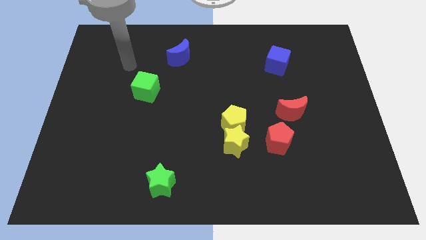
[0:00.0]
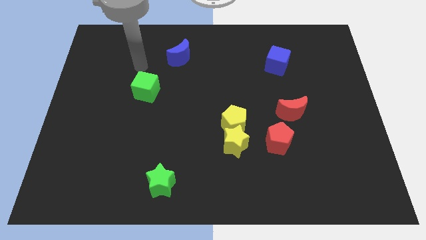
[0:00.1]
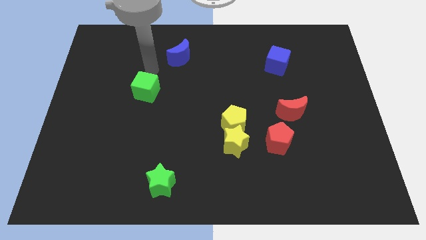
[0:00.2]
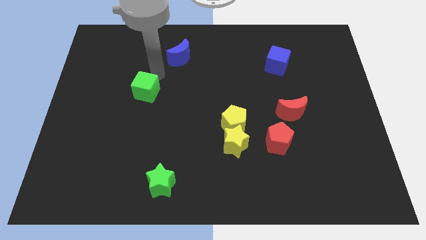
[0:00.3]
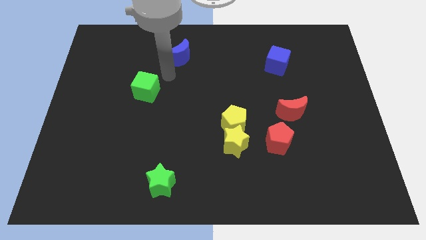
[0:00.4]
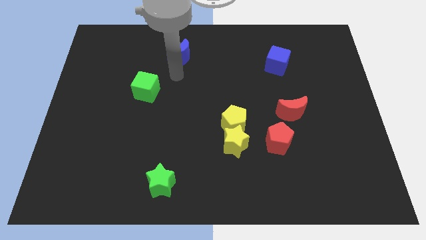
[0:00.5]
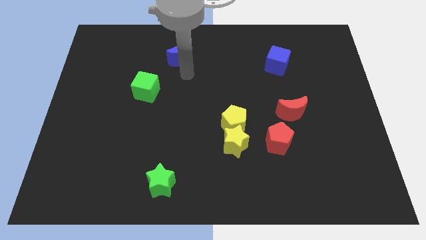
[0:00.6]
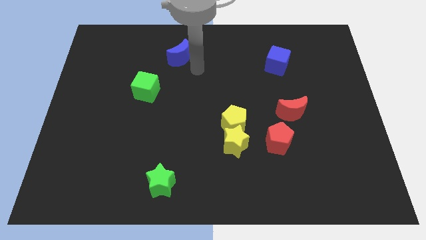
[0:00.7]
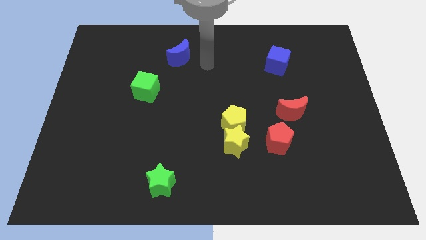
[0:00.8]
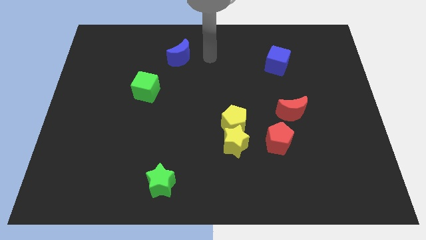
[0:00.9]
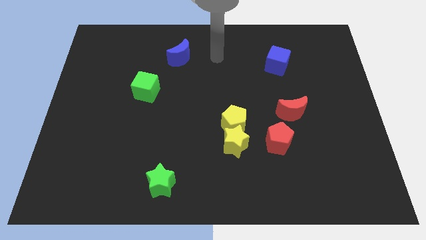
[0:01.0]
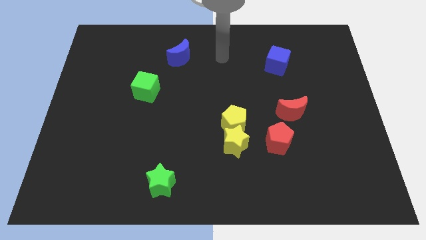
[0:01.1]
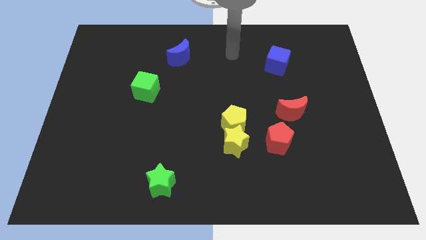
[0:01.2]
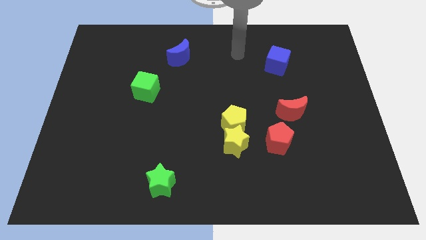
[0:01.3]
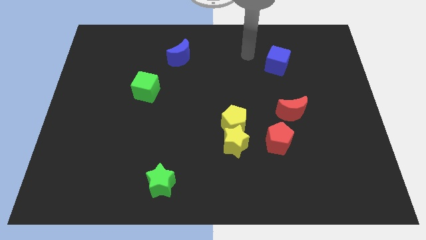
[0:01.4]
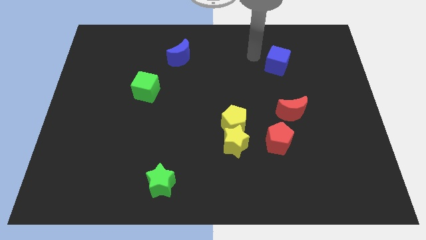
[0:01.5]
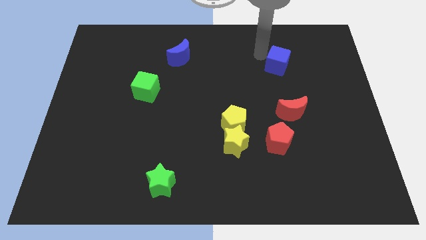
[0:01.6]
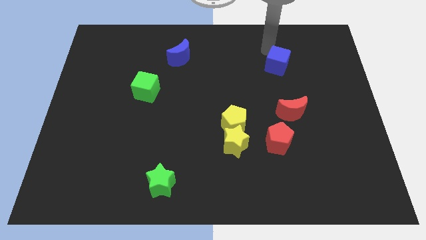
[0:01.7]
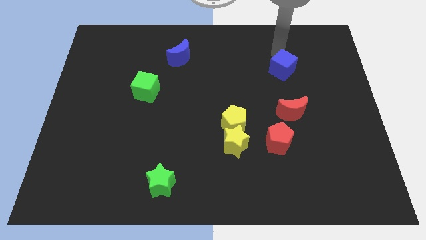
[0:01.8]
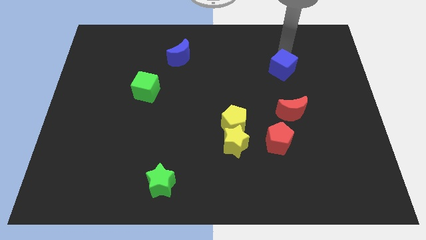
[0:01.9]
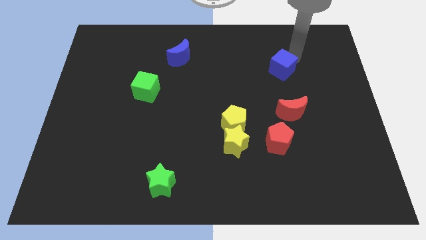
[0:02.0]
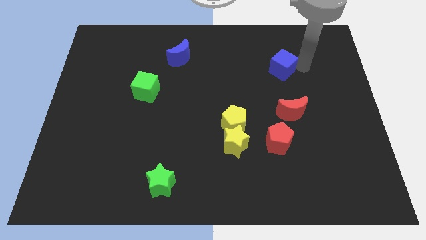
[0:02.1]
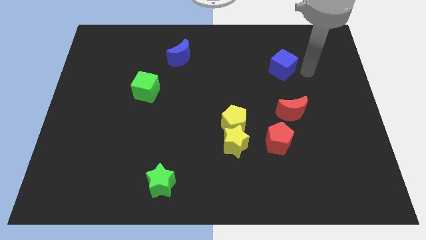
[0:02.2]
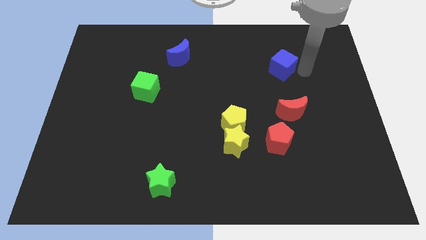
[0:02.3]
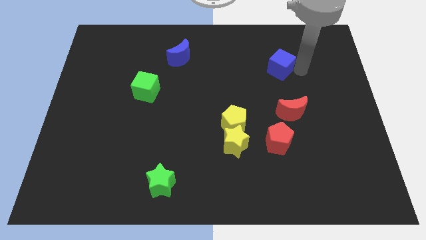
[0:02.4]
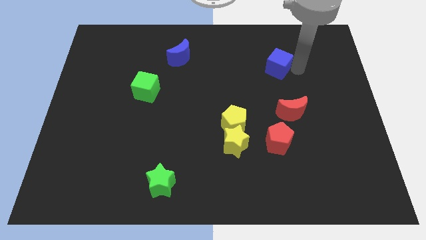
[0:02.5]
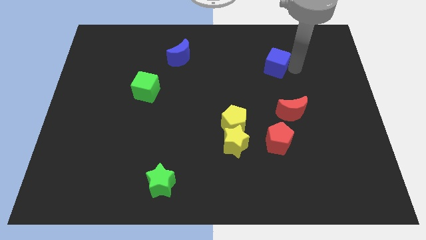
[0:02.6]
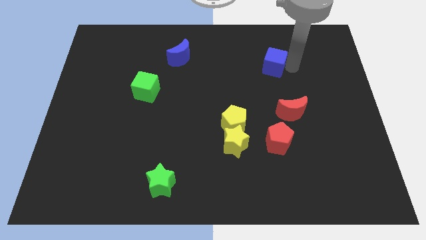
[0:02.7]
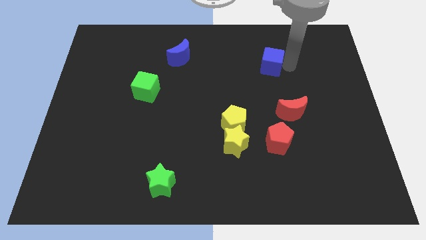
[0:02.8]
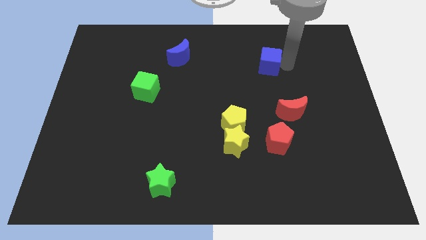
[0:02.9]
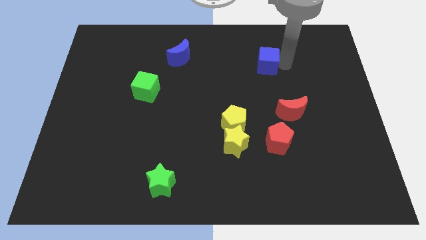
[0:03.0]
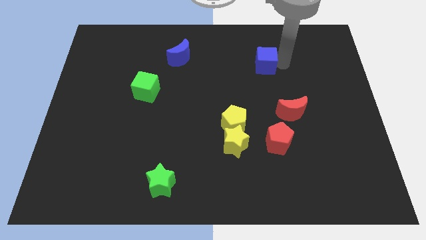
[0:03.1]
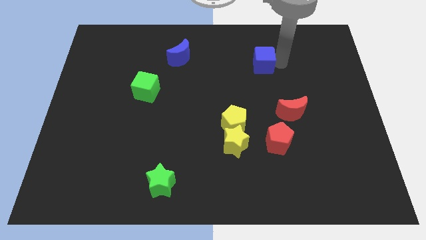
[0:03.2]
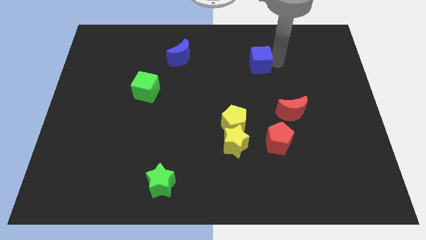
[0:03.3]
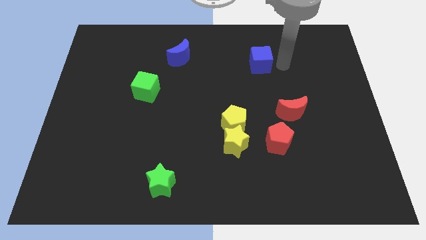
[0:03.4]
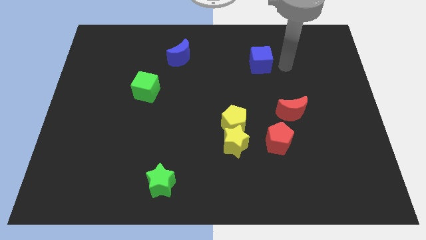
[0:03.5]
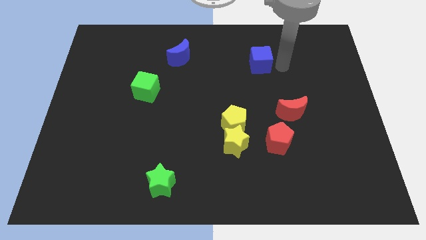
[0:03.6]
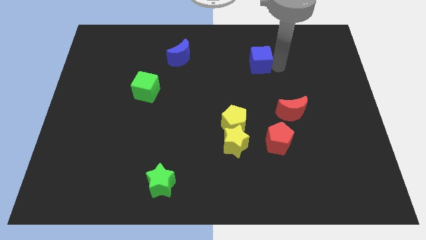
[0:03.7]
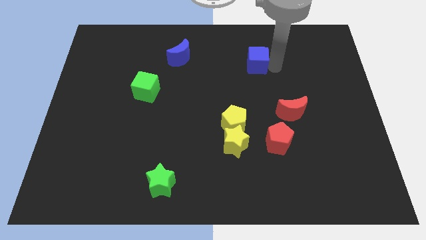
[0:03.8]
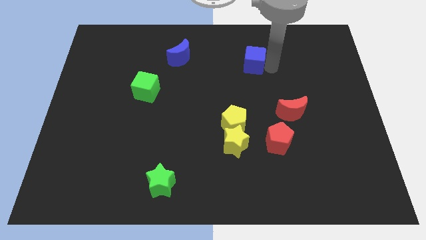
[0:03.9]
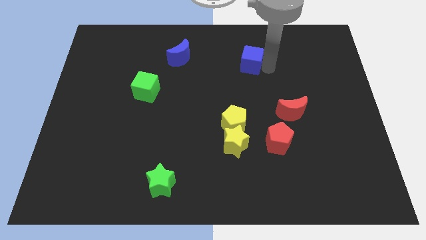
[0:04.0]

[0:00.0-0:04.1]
push the blue cube left a bit

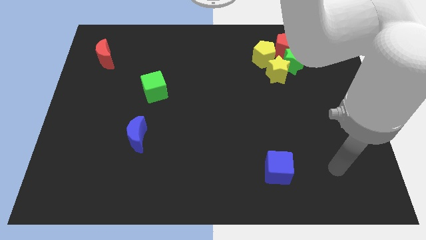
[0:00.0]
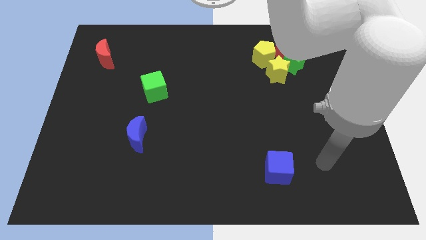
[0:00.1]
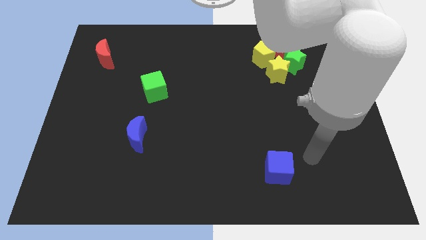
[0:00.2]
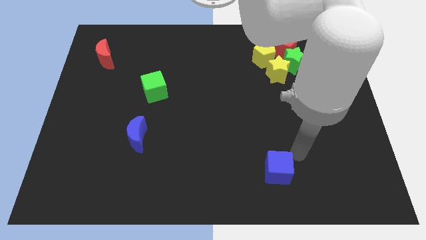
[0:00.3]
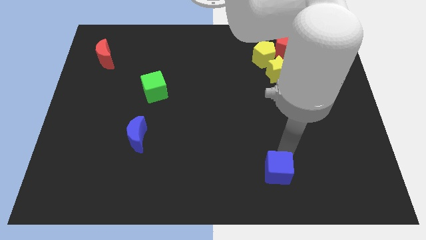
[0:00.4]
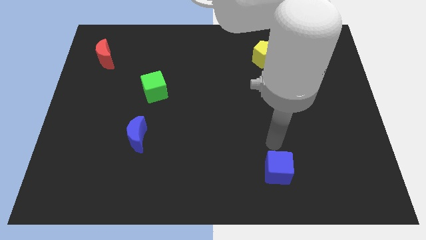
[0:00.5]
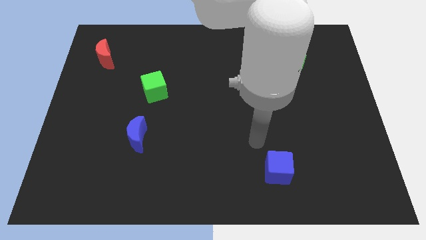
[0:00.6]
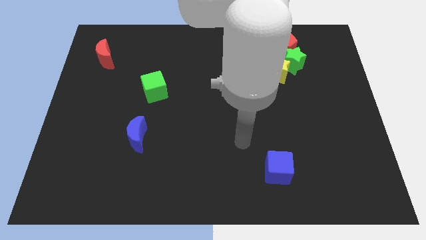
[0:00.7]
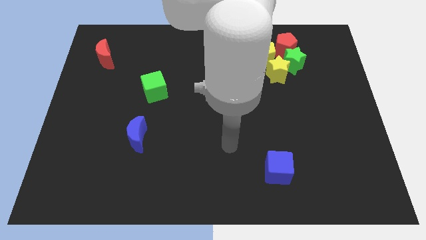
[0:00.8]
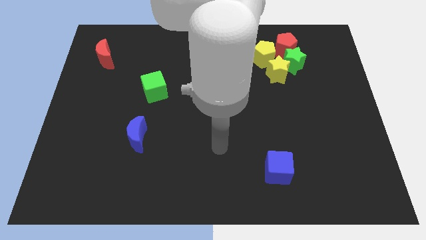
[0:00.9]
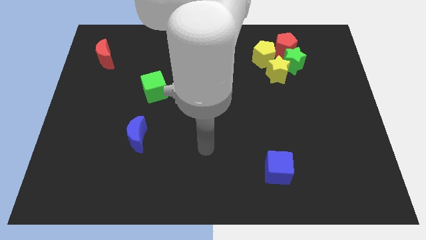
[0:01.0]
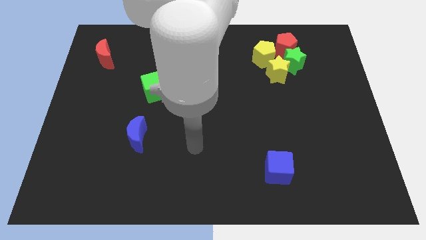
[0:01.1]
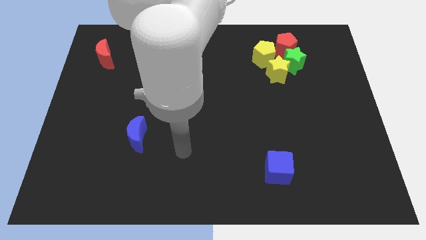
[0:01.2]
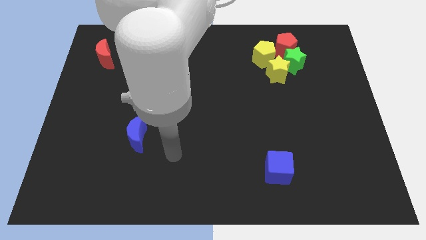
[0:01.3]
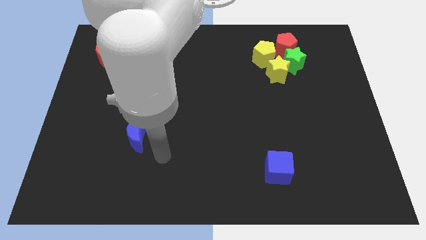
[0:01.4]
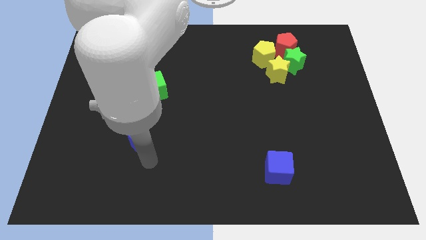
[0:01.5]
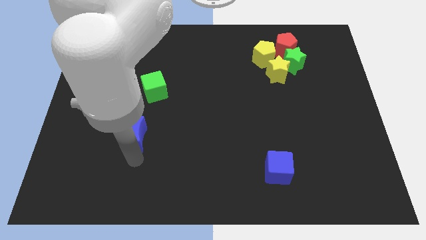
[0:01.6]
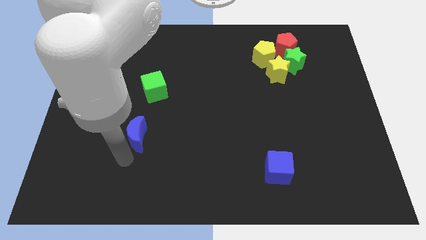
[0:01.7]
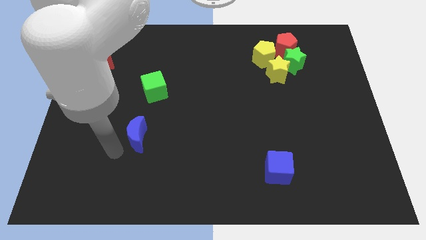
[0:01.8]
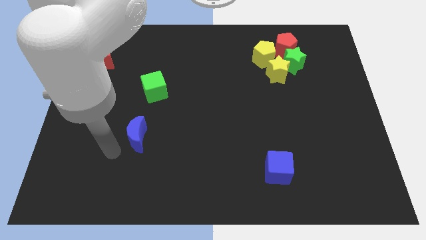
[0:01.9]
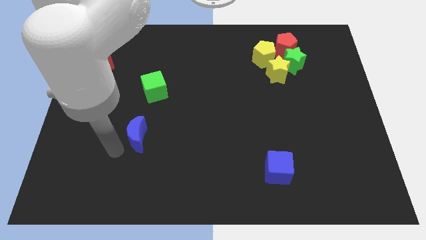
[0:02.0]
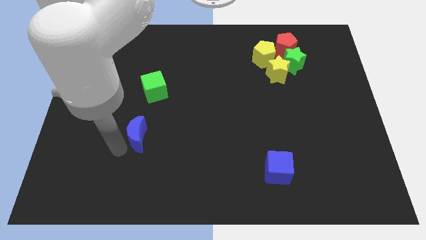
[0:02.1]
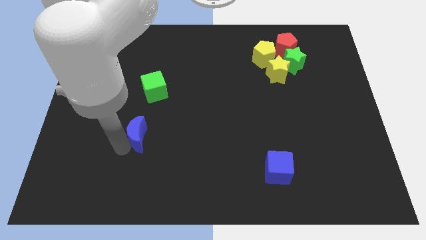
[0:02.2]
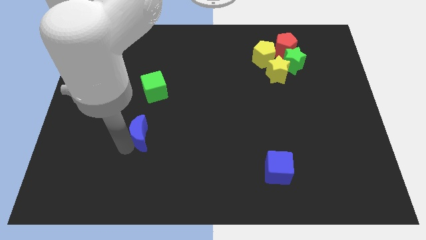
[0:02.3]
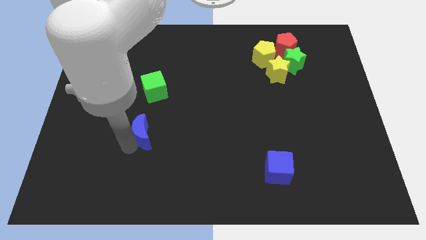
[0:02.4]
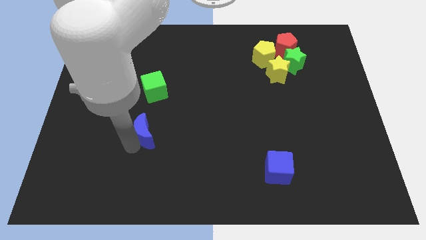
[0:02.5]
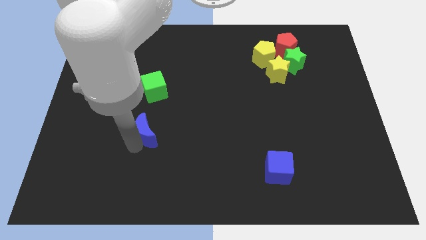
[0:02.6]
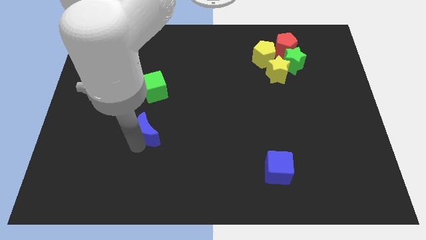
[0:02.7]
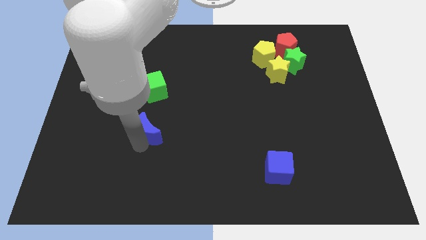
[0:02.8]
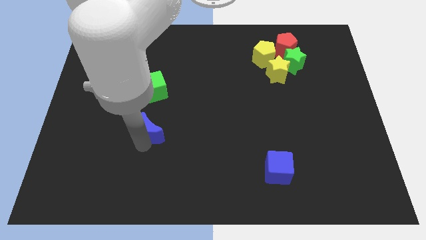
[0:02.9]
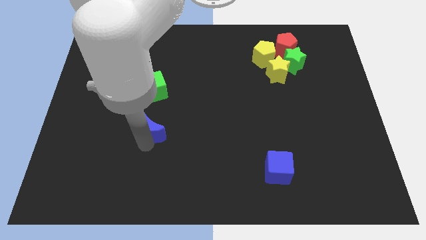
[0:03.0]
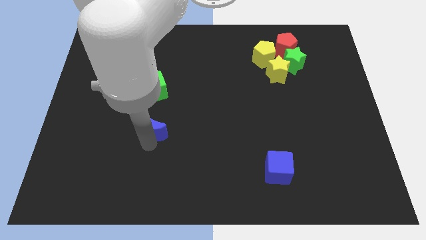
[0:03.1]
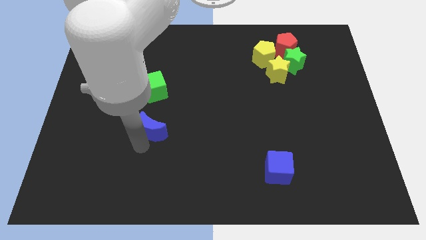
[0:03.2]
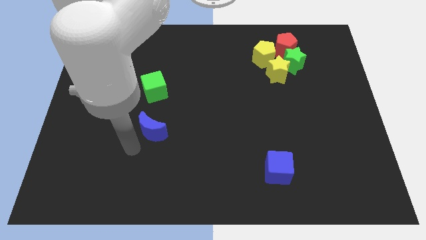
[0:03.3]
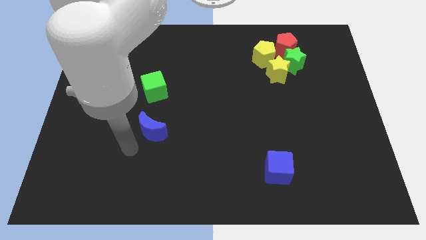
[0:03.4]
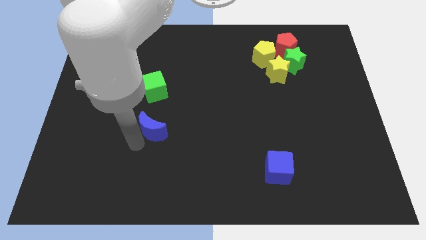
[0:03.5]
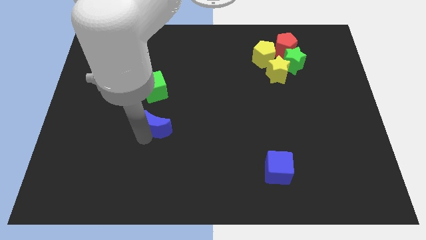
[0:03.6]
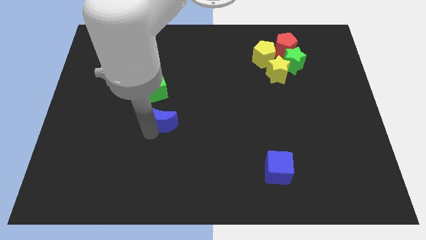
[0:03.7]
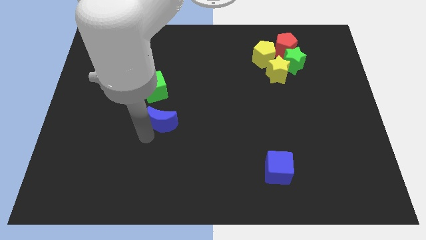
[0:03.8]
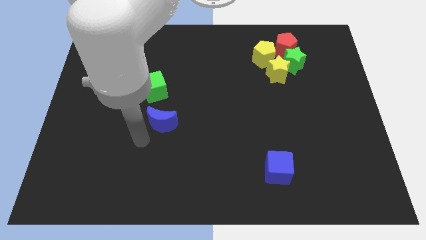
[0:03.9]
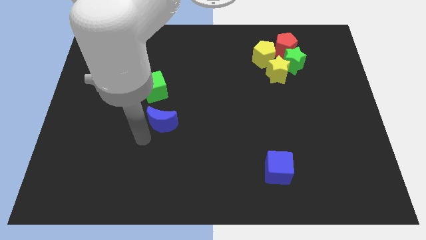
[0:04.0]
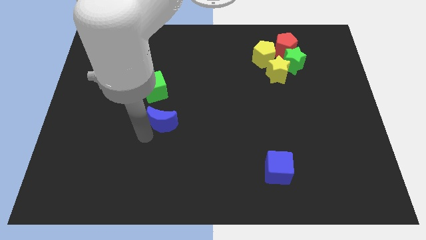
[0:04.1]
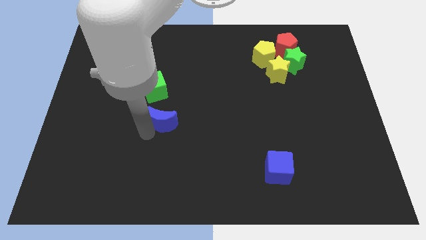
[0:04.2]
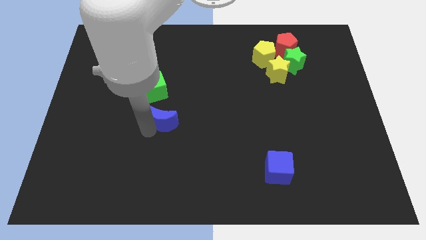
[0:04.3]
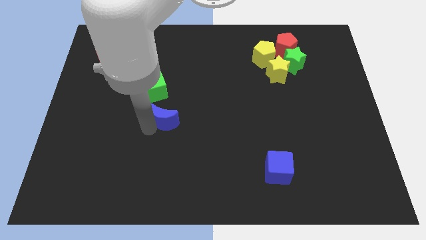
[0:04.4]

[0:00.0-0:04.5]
slightly push the blue moon diagonally upwards and right
